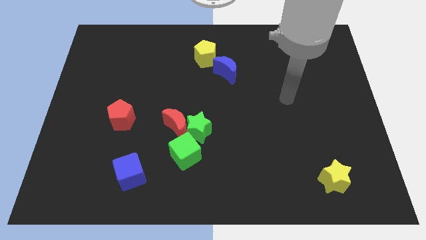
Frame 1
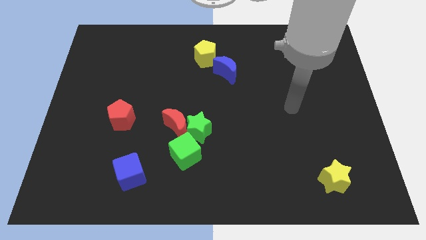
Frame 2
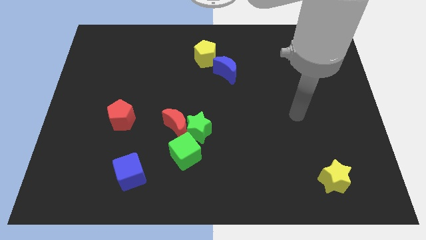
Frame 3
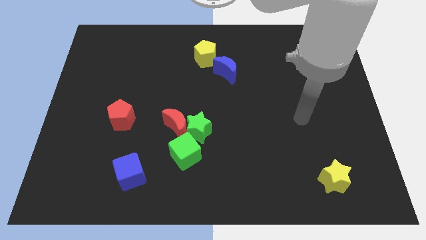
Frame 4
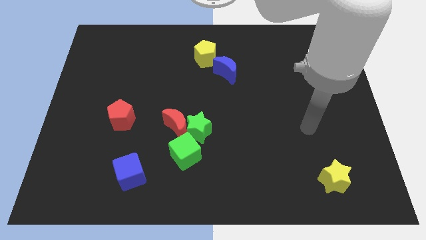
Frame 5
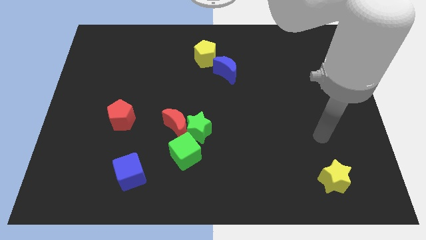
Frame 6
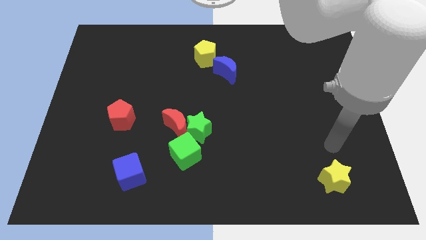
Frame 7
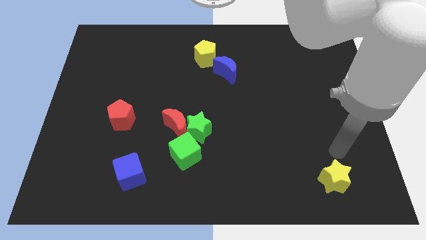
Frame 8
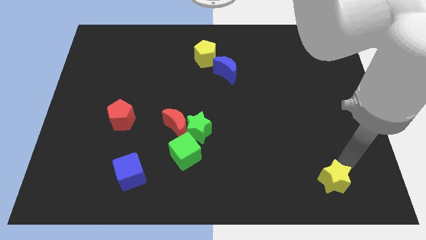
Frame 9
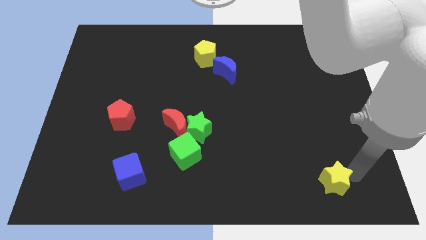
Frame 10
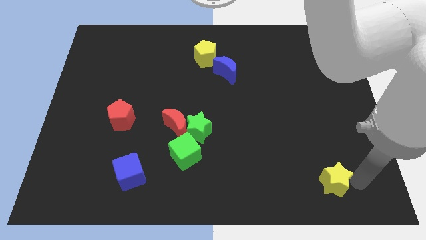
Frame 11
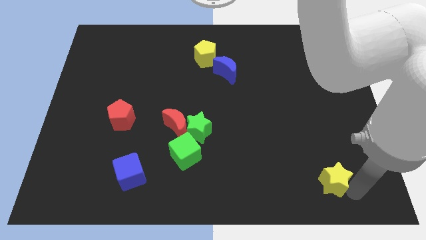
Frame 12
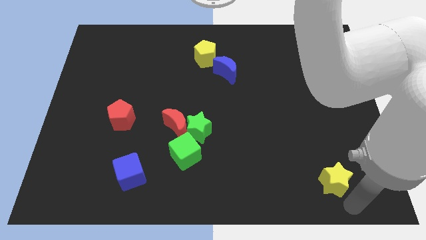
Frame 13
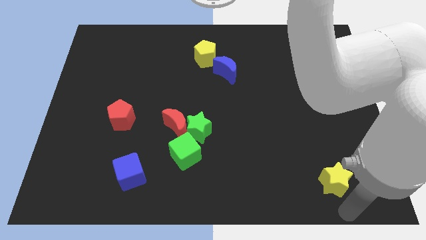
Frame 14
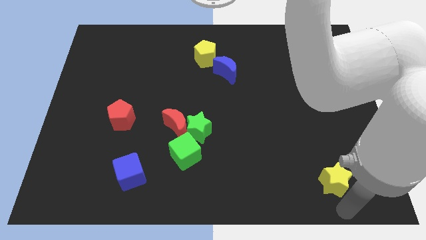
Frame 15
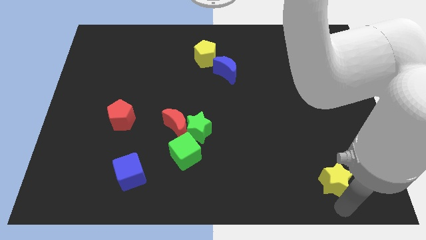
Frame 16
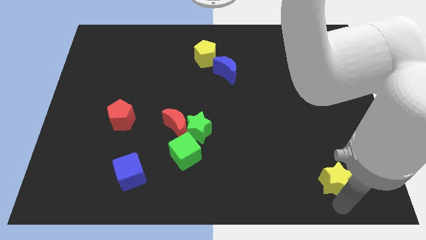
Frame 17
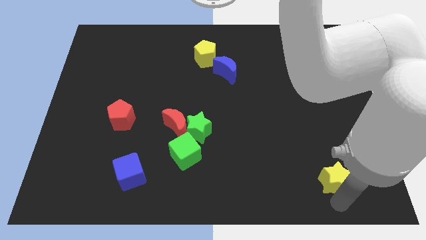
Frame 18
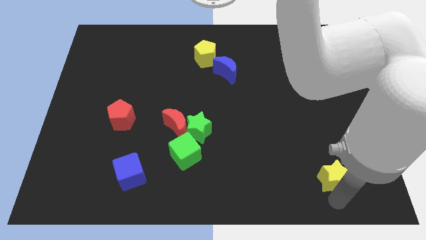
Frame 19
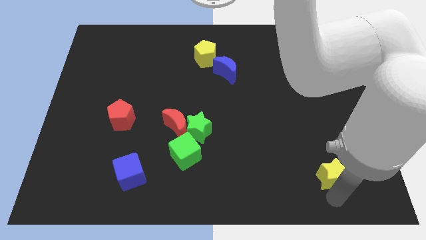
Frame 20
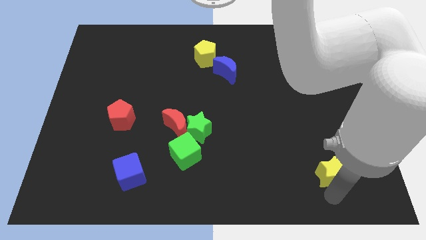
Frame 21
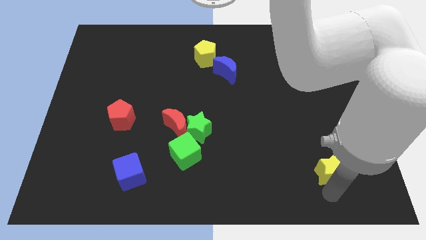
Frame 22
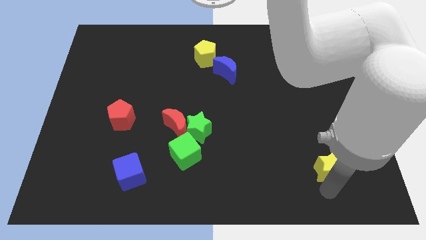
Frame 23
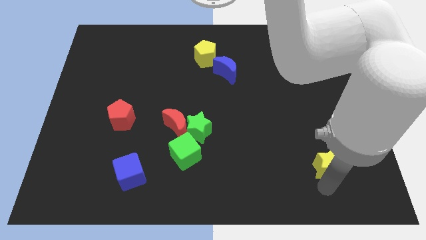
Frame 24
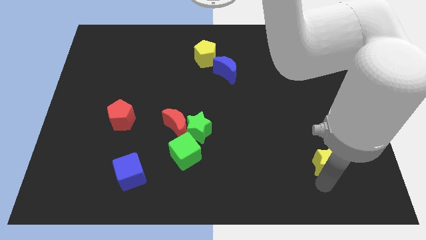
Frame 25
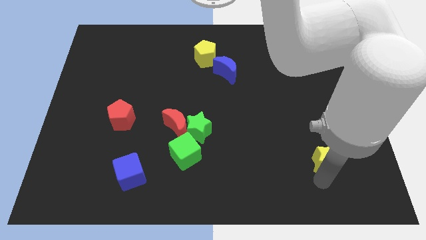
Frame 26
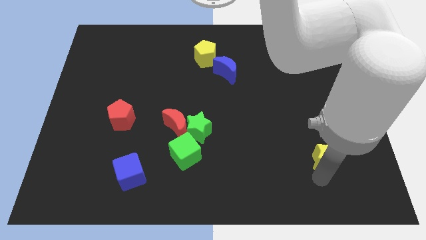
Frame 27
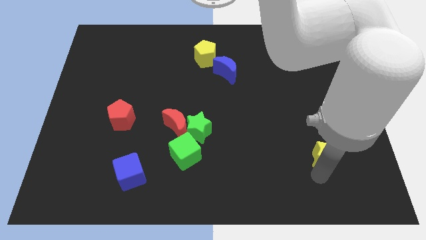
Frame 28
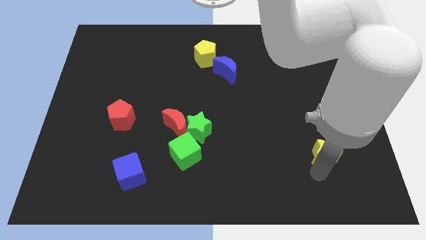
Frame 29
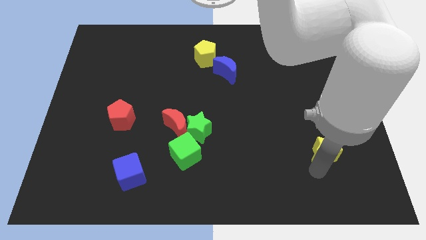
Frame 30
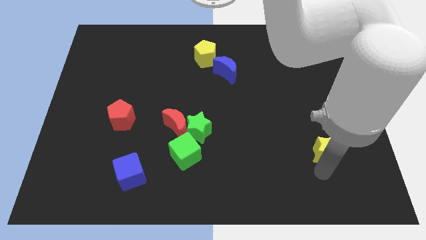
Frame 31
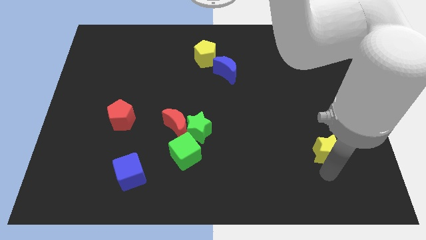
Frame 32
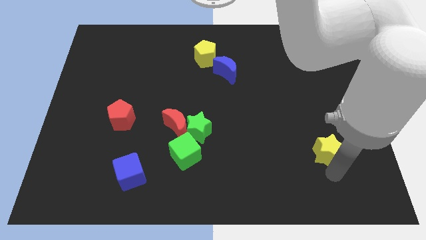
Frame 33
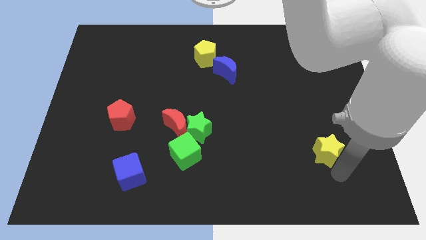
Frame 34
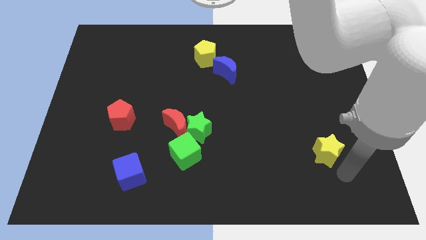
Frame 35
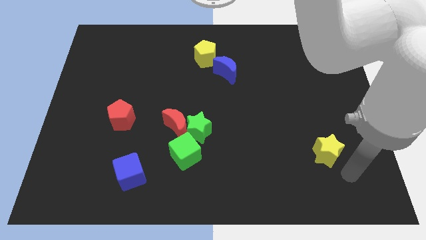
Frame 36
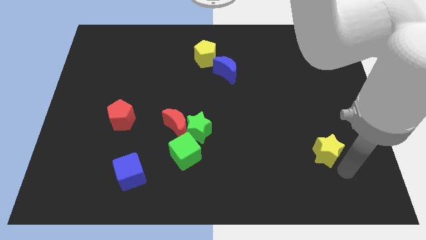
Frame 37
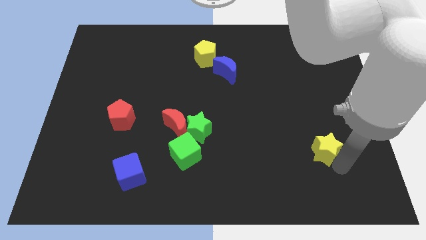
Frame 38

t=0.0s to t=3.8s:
slightly slide the yellow star upwards

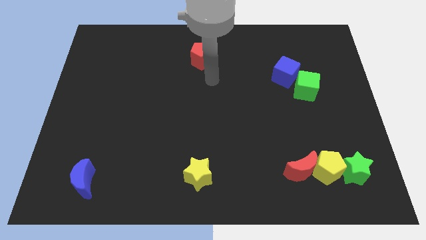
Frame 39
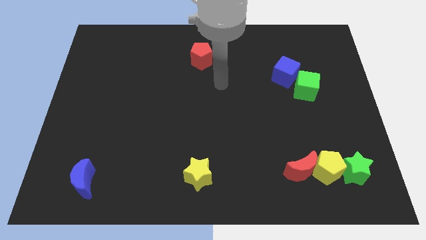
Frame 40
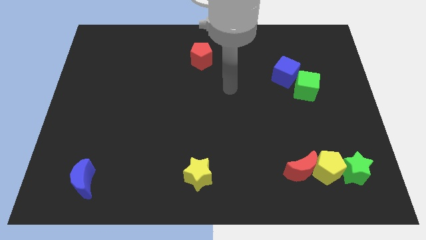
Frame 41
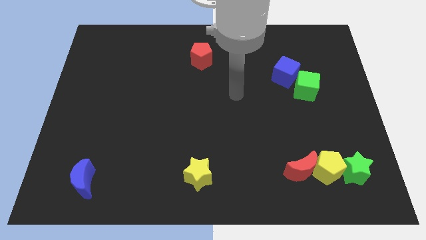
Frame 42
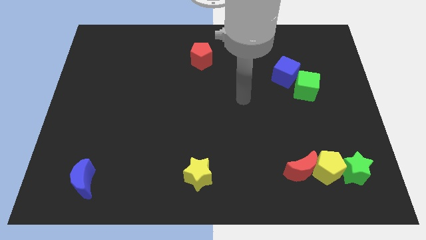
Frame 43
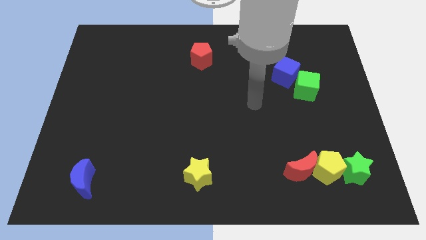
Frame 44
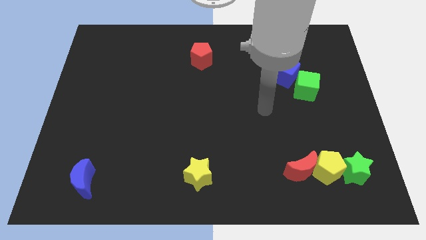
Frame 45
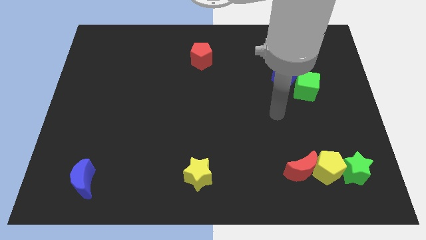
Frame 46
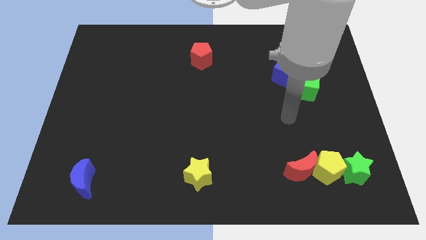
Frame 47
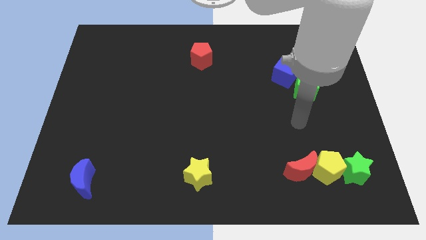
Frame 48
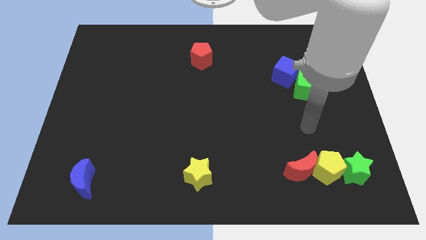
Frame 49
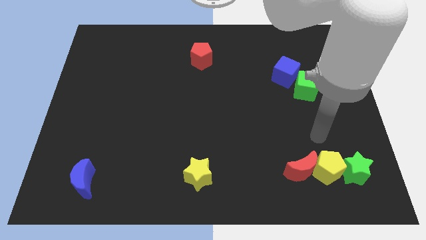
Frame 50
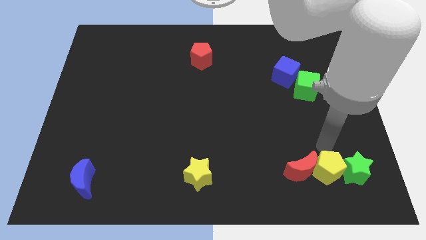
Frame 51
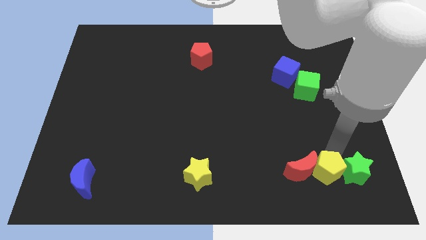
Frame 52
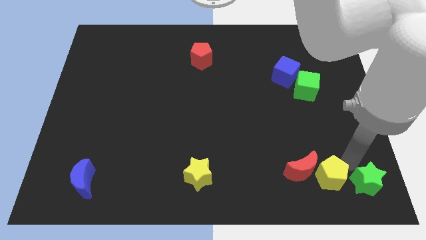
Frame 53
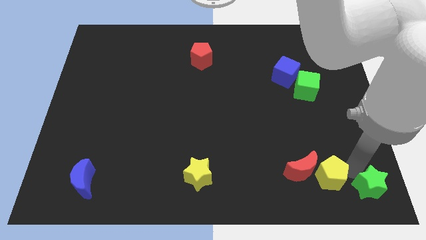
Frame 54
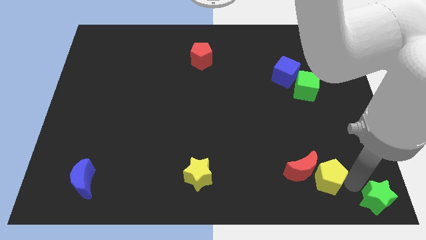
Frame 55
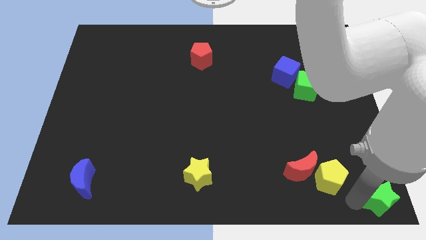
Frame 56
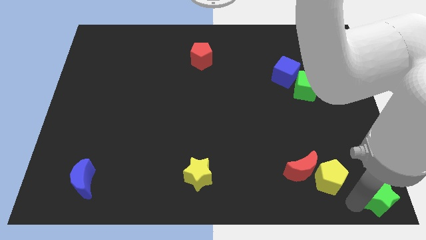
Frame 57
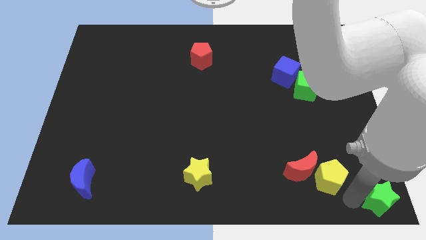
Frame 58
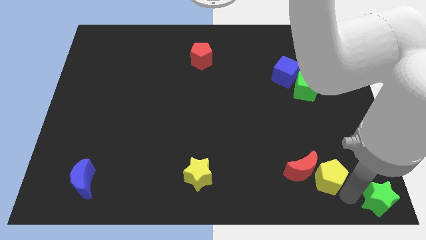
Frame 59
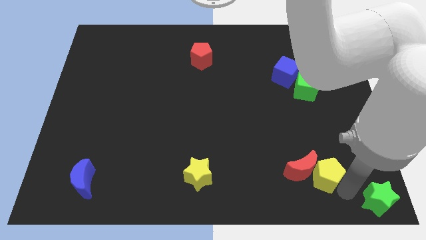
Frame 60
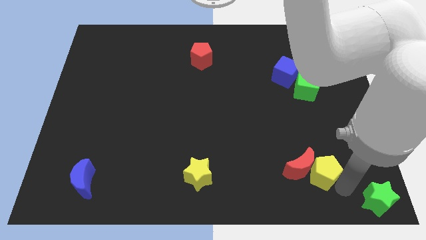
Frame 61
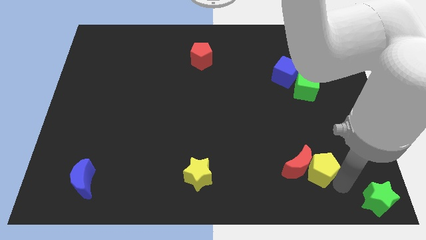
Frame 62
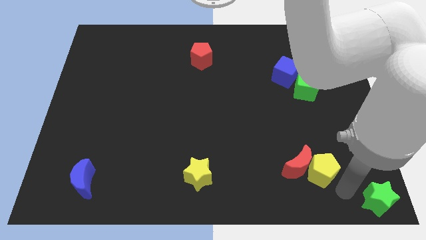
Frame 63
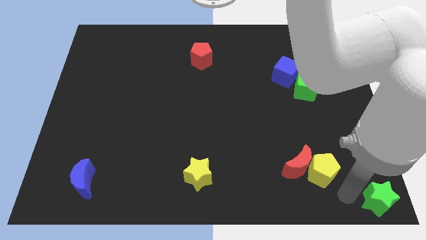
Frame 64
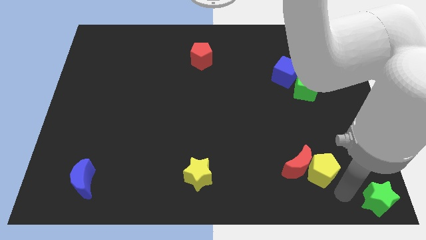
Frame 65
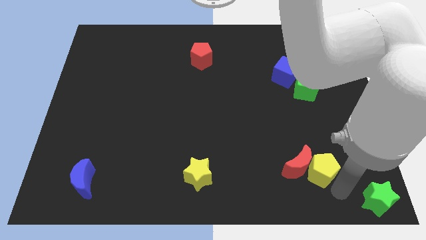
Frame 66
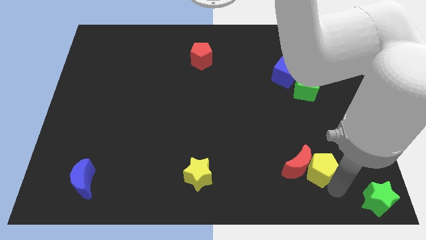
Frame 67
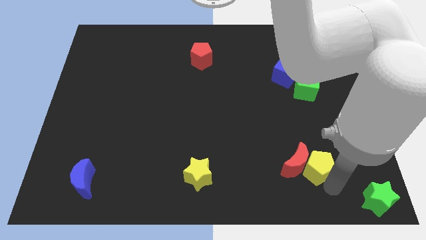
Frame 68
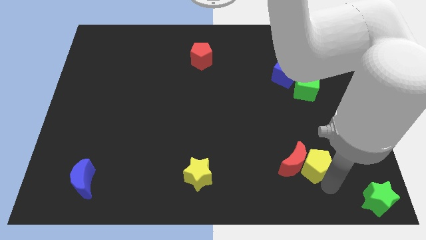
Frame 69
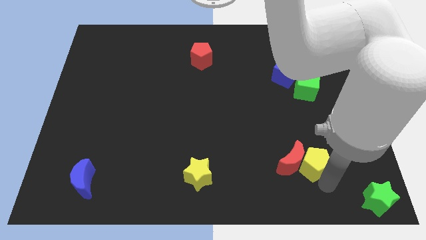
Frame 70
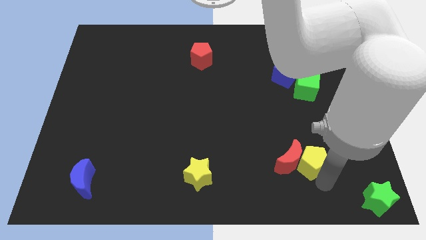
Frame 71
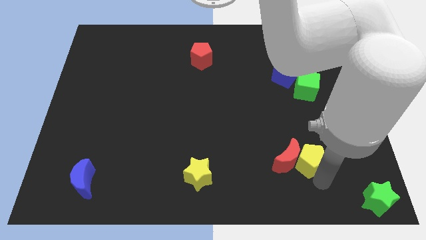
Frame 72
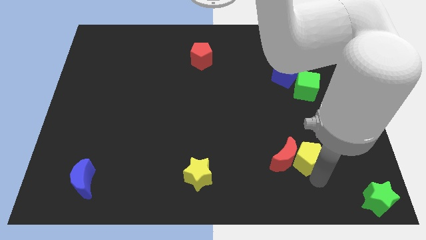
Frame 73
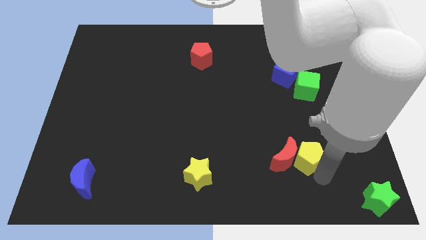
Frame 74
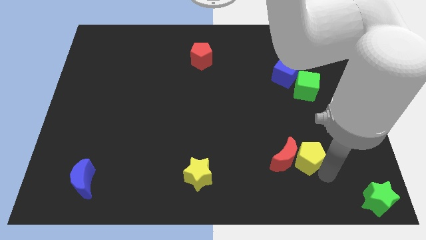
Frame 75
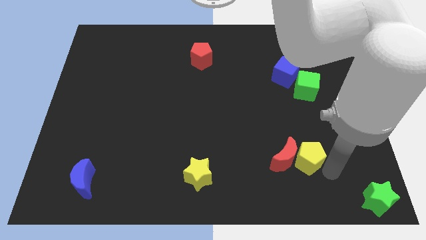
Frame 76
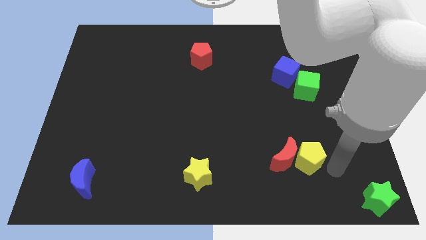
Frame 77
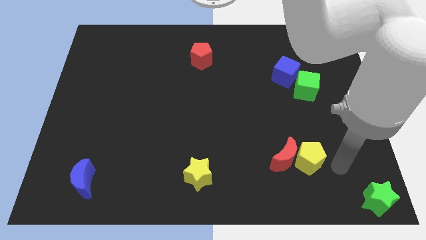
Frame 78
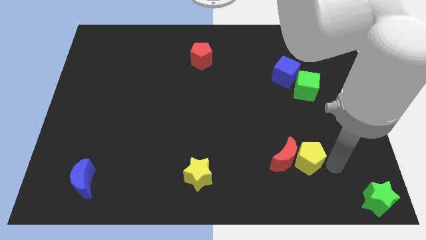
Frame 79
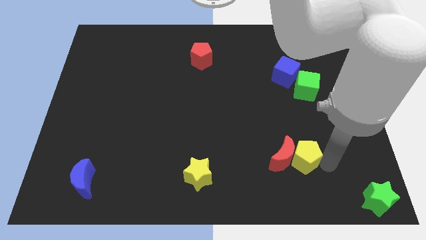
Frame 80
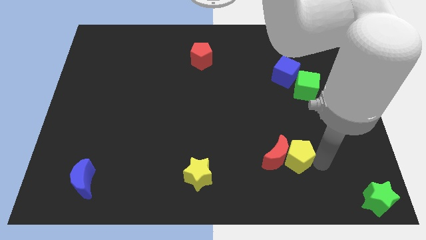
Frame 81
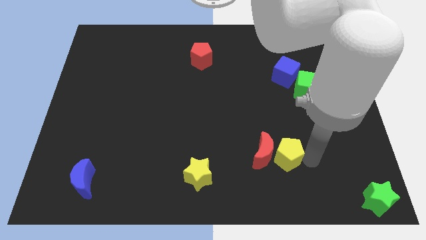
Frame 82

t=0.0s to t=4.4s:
move the yellow pentagon to the left a bit
